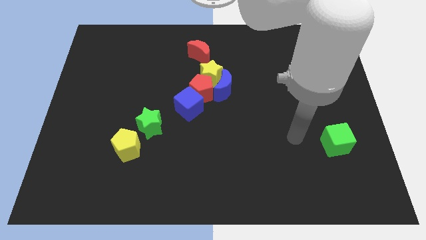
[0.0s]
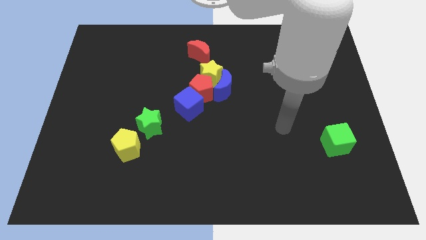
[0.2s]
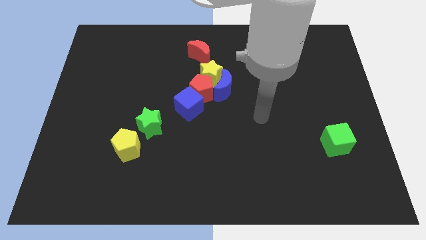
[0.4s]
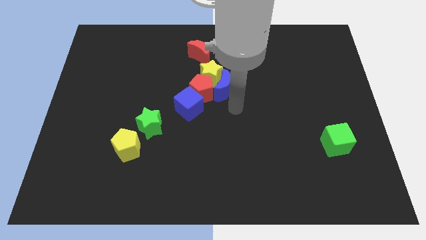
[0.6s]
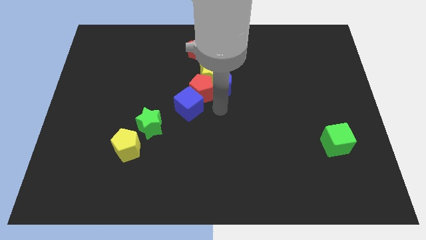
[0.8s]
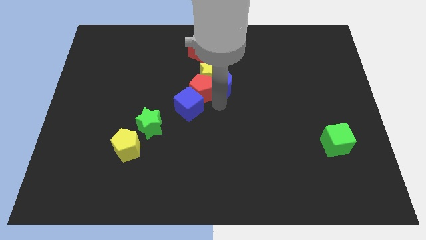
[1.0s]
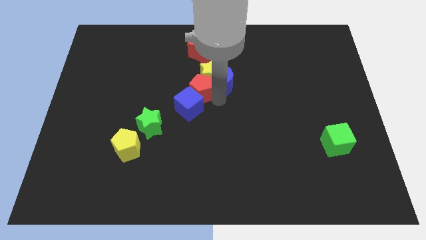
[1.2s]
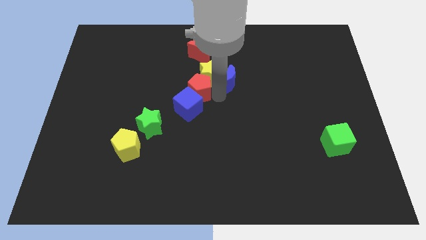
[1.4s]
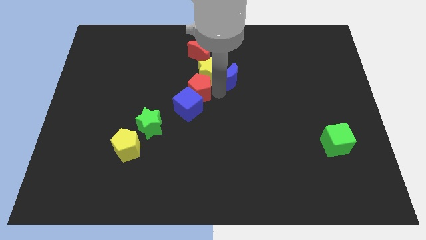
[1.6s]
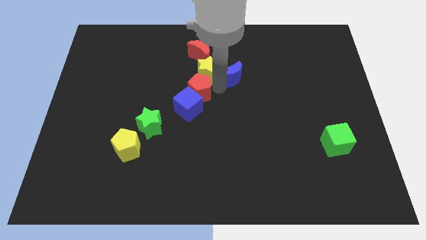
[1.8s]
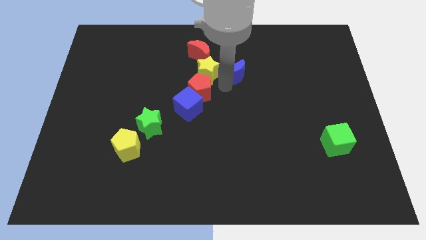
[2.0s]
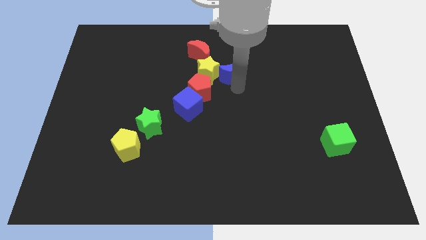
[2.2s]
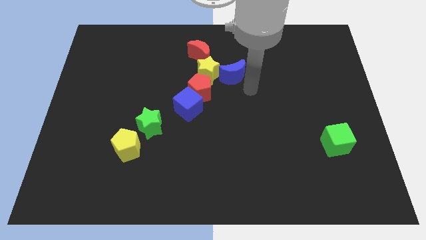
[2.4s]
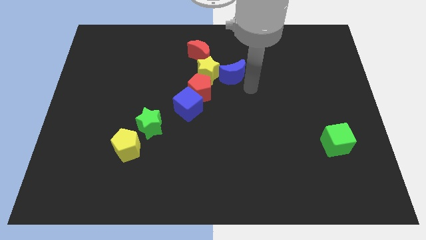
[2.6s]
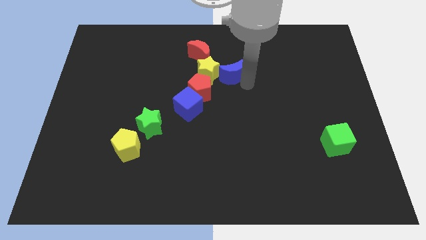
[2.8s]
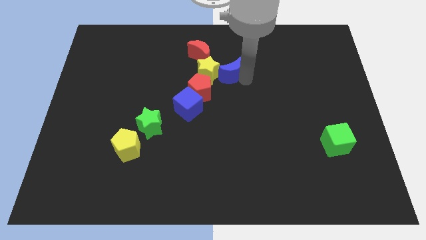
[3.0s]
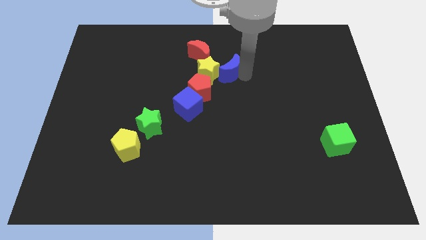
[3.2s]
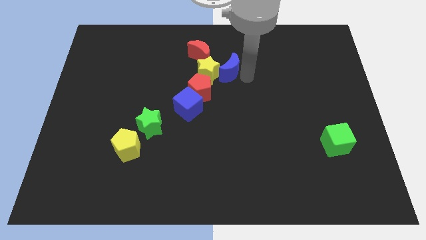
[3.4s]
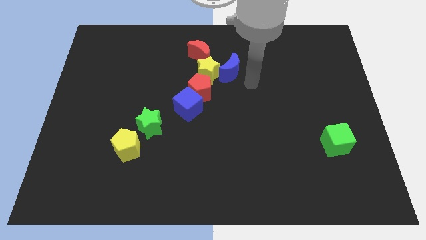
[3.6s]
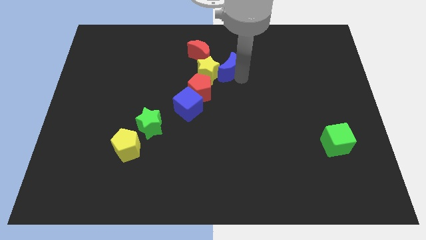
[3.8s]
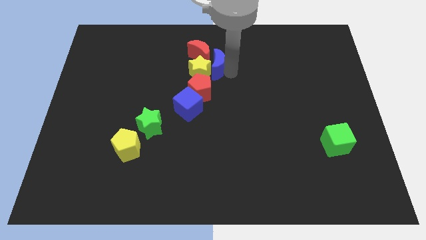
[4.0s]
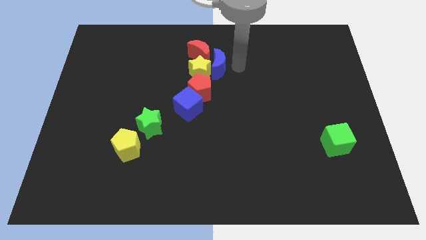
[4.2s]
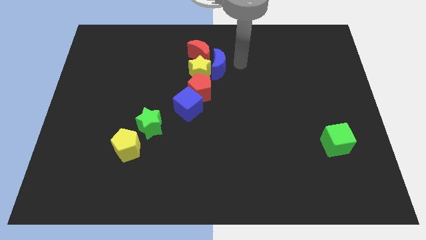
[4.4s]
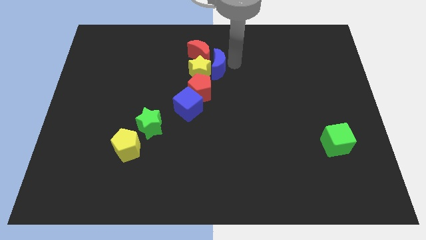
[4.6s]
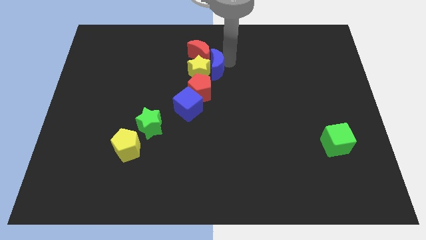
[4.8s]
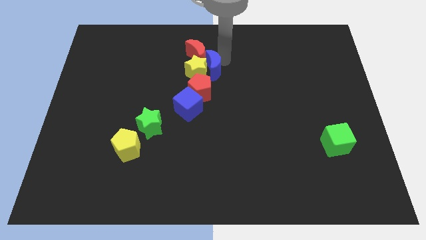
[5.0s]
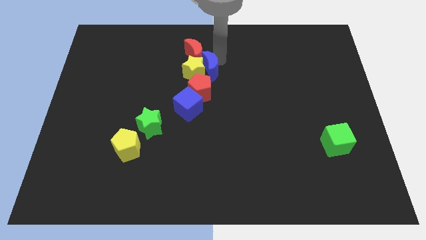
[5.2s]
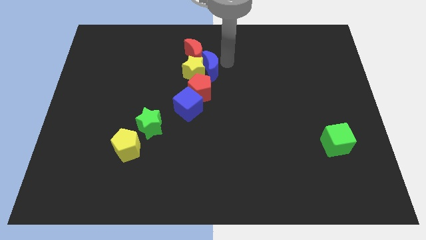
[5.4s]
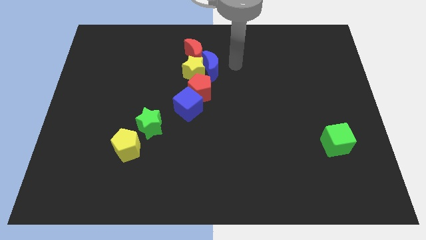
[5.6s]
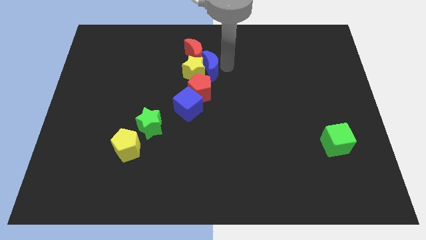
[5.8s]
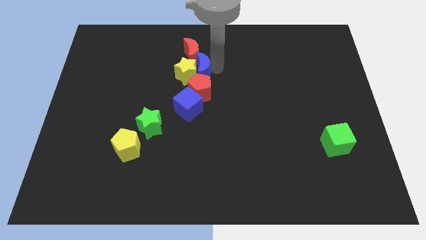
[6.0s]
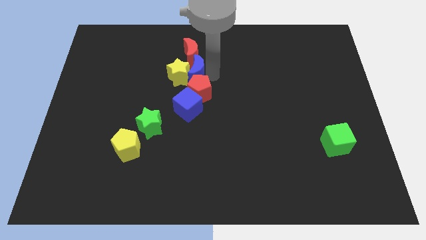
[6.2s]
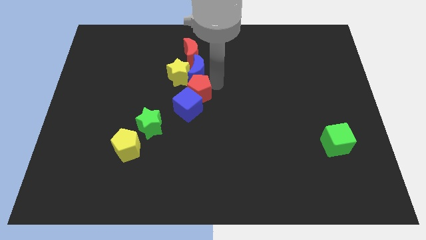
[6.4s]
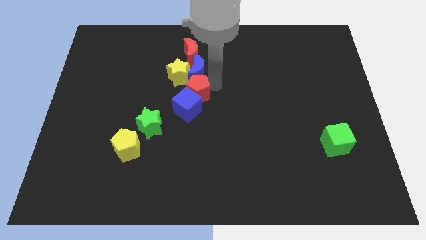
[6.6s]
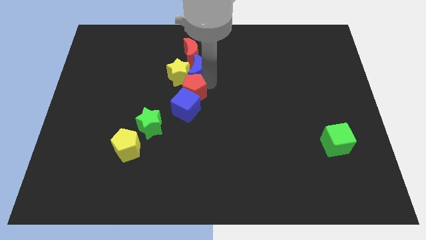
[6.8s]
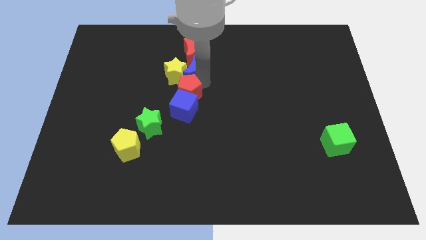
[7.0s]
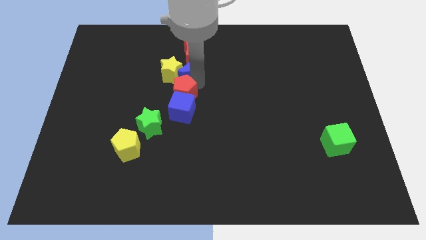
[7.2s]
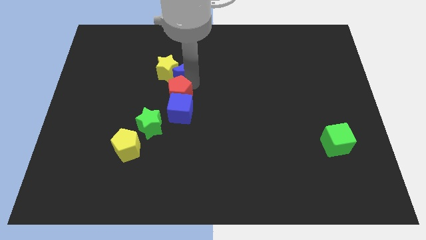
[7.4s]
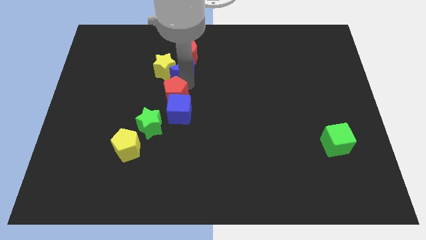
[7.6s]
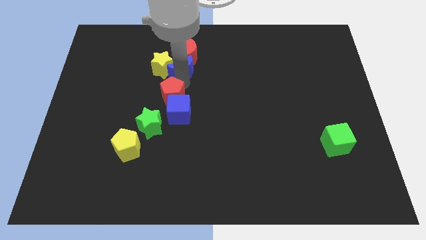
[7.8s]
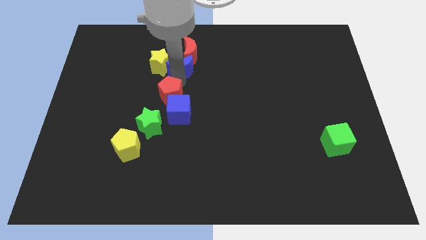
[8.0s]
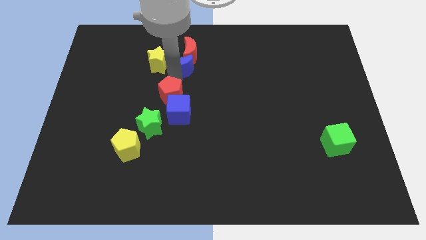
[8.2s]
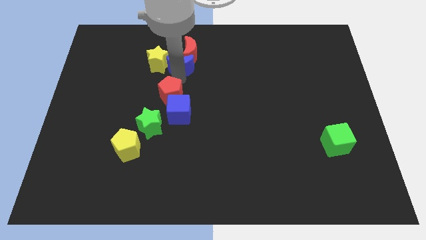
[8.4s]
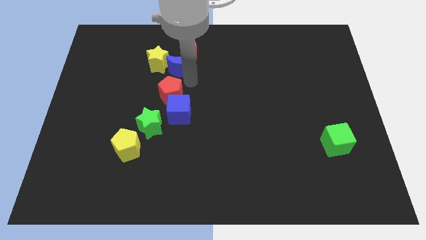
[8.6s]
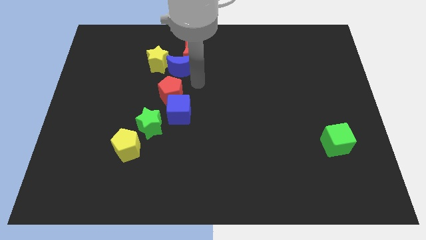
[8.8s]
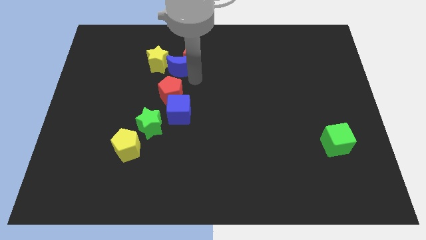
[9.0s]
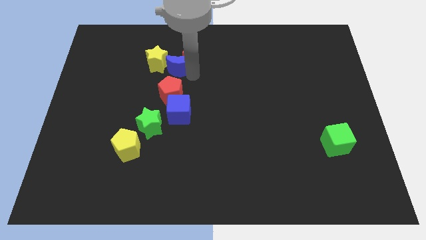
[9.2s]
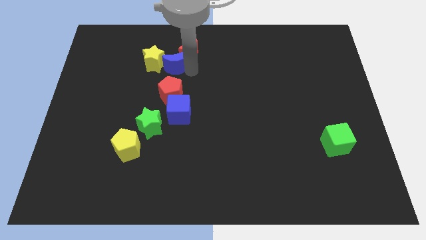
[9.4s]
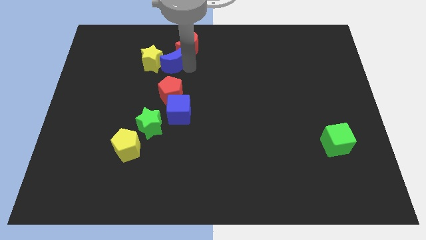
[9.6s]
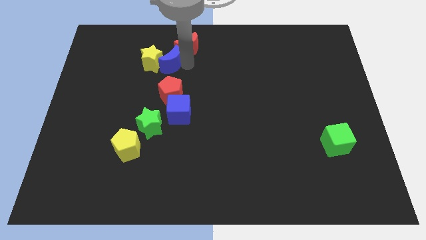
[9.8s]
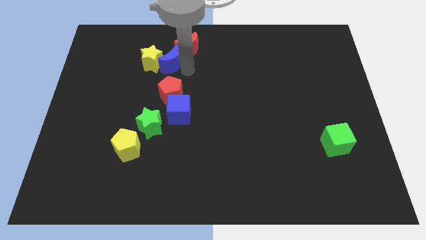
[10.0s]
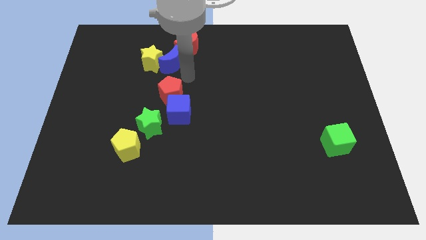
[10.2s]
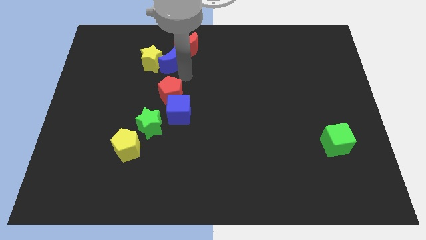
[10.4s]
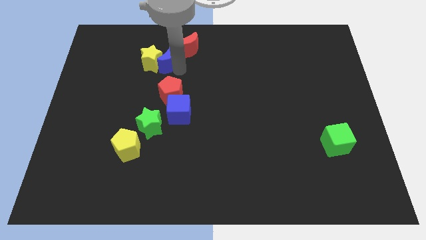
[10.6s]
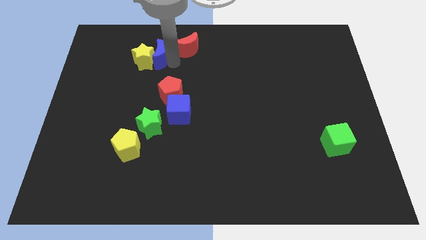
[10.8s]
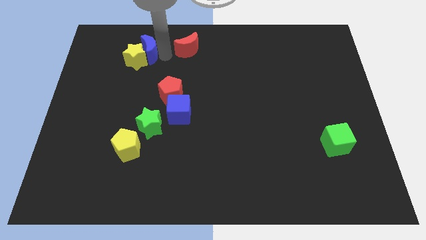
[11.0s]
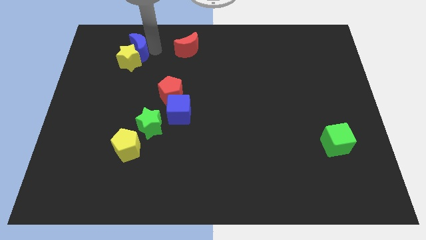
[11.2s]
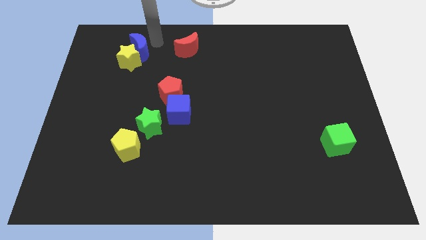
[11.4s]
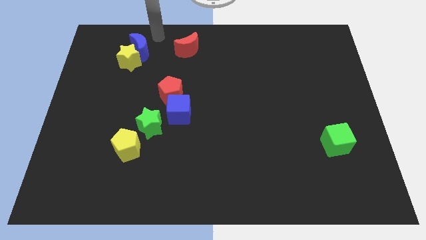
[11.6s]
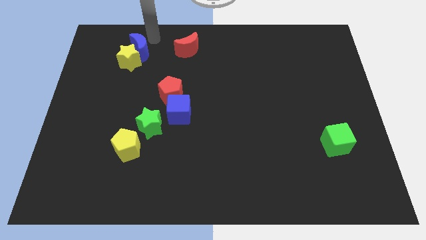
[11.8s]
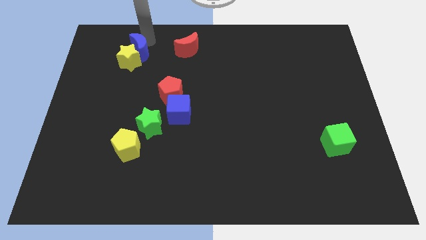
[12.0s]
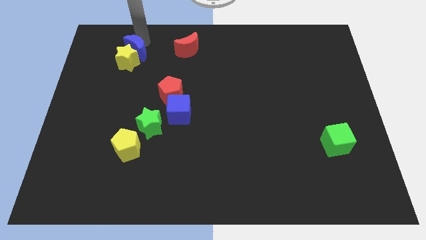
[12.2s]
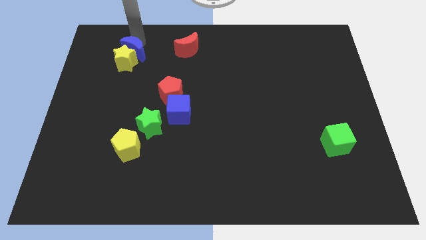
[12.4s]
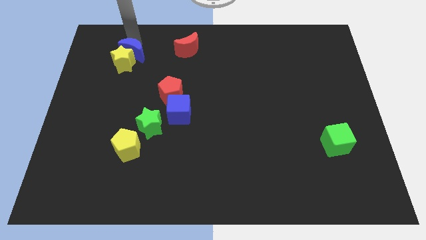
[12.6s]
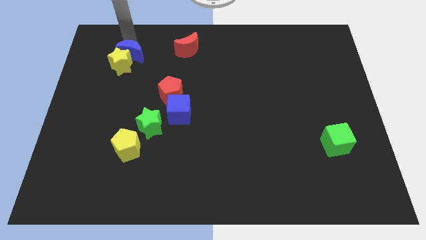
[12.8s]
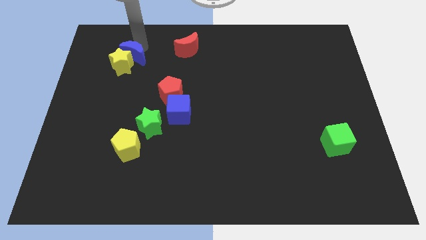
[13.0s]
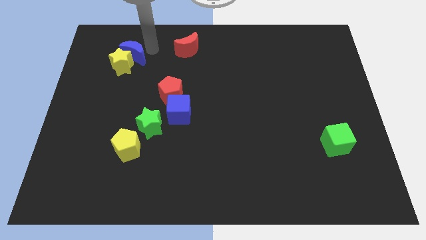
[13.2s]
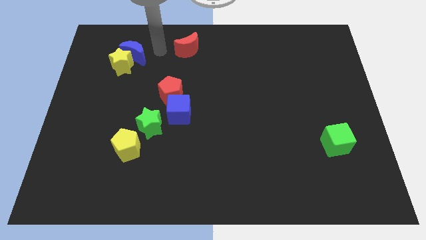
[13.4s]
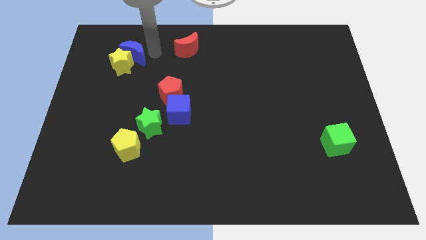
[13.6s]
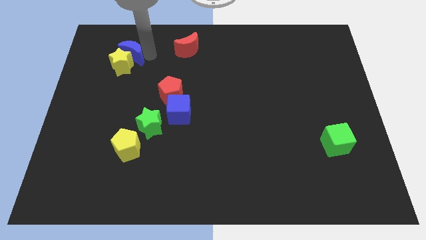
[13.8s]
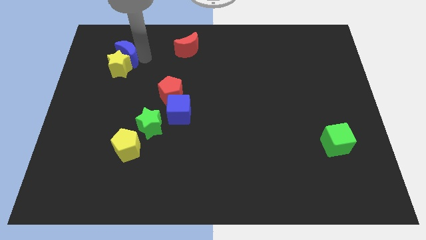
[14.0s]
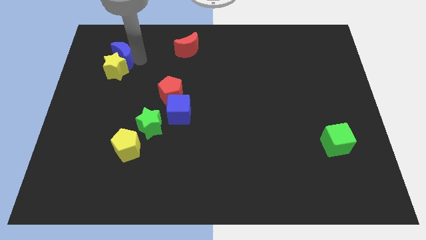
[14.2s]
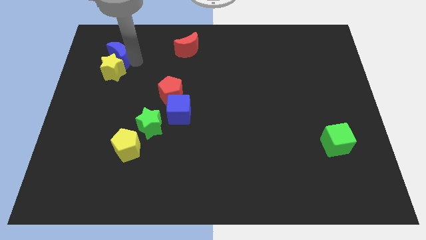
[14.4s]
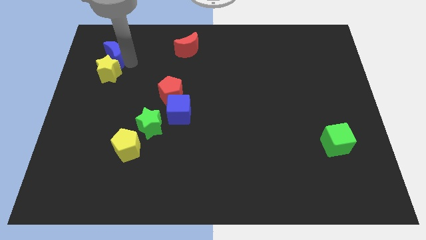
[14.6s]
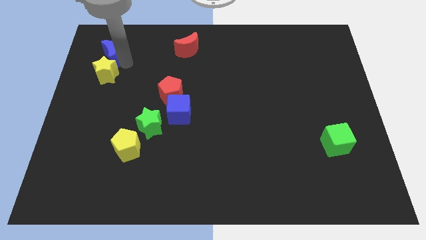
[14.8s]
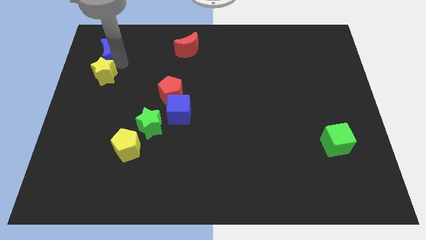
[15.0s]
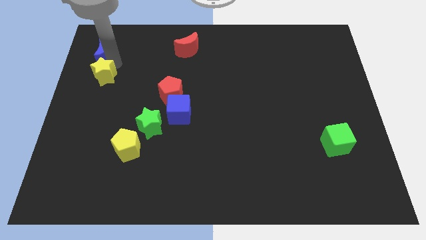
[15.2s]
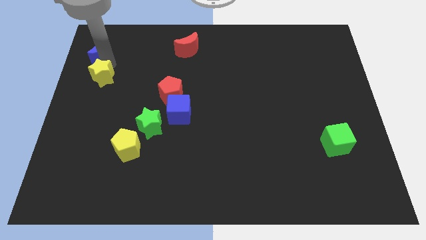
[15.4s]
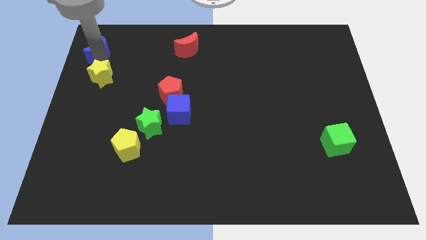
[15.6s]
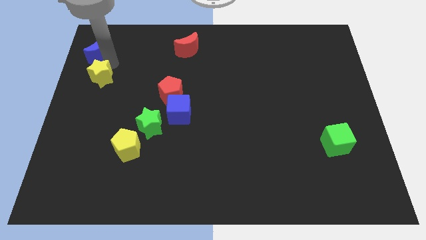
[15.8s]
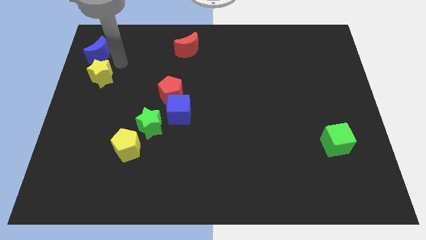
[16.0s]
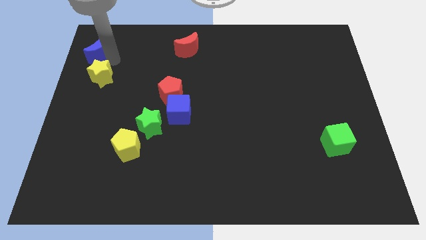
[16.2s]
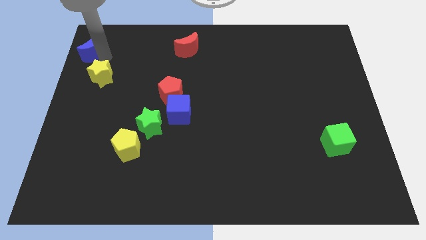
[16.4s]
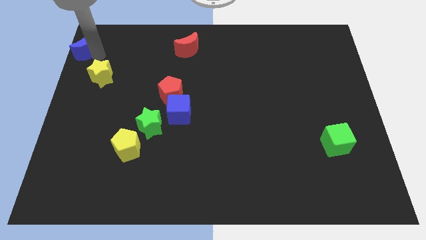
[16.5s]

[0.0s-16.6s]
put the blue moon to the top left corner
